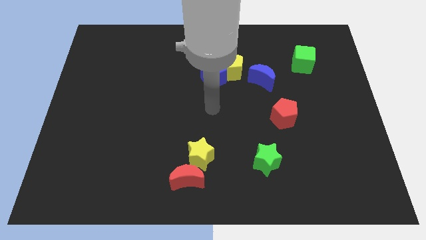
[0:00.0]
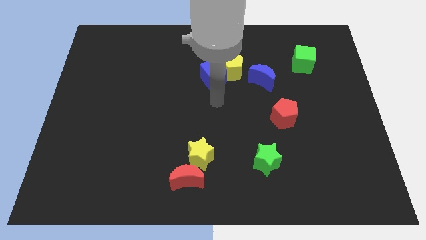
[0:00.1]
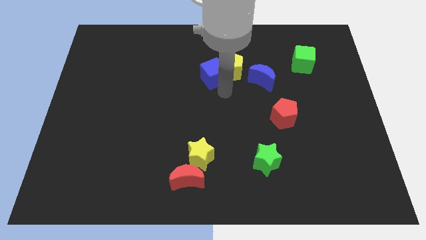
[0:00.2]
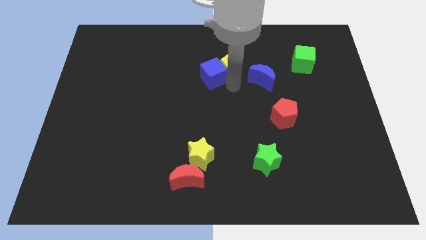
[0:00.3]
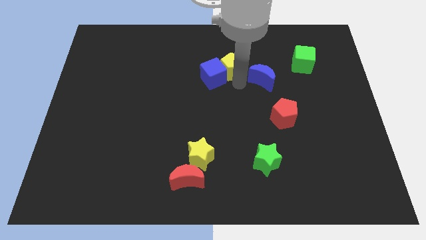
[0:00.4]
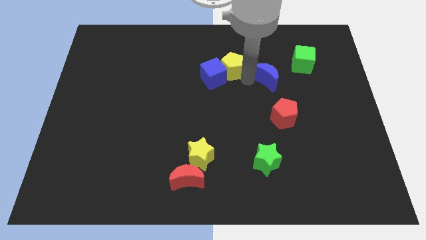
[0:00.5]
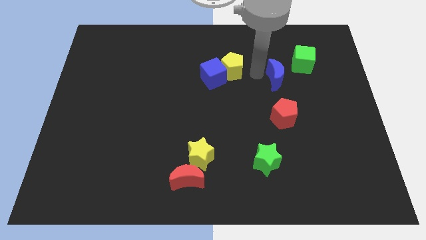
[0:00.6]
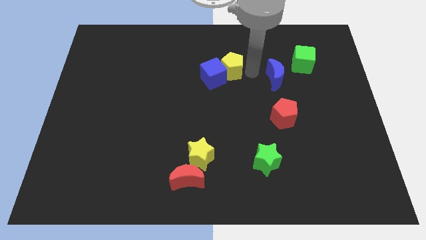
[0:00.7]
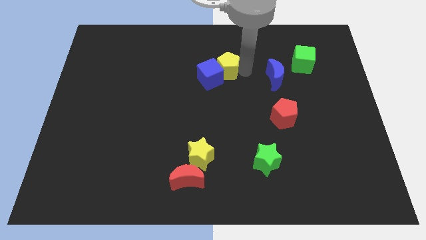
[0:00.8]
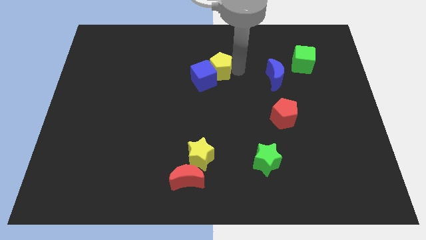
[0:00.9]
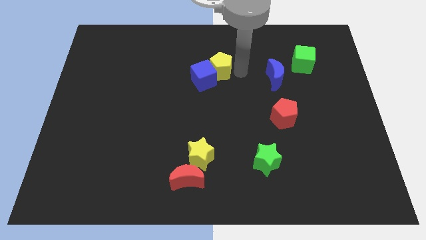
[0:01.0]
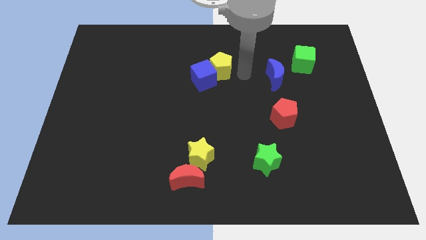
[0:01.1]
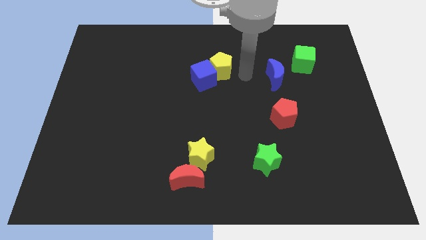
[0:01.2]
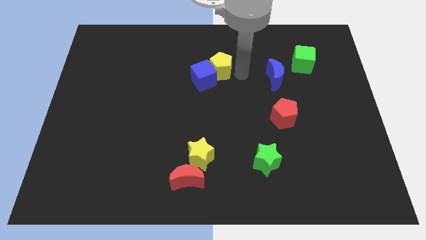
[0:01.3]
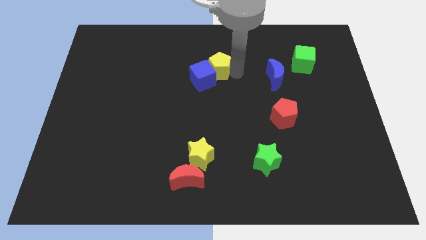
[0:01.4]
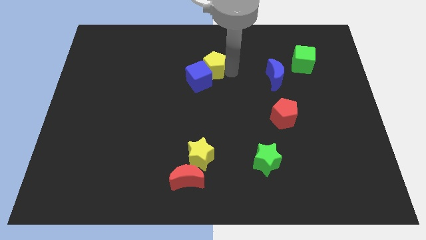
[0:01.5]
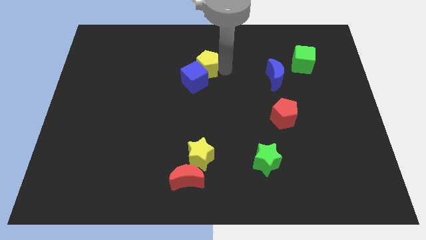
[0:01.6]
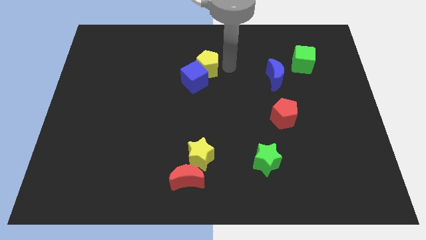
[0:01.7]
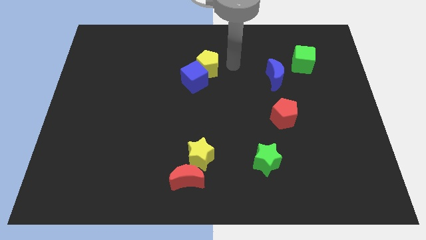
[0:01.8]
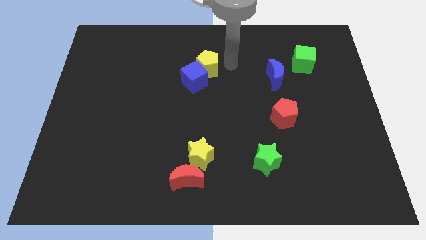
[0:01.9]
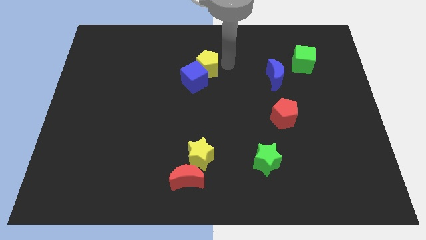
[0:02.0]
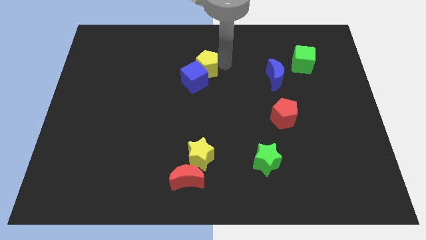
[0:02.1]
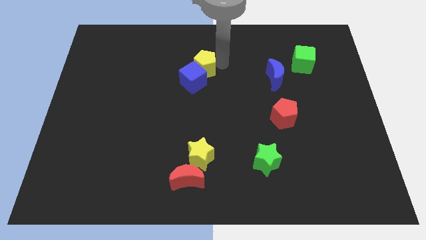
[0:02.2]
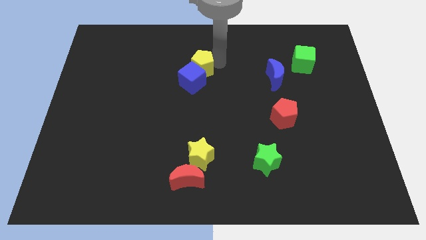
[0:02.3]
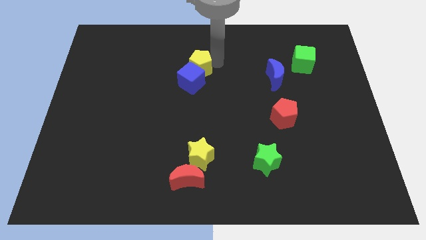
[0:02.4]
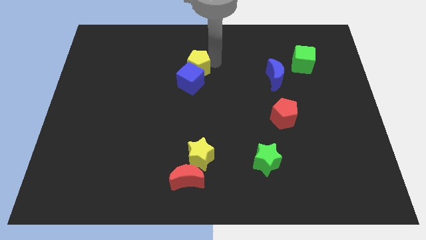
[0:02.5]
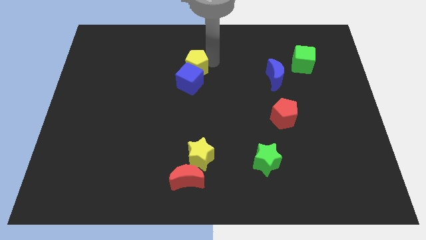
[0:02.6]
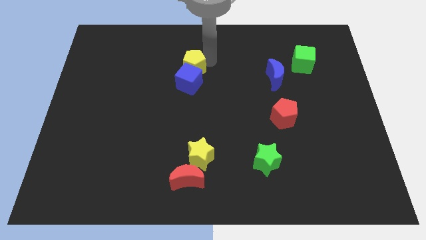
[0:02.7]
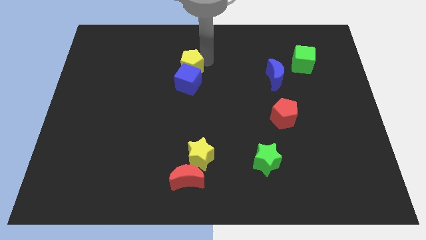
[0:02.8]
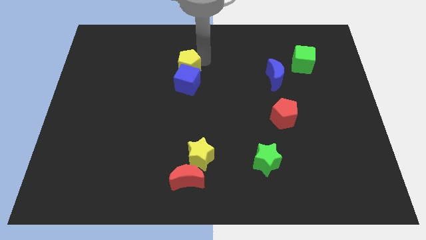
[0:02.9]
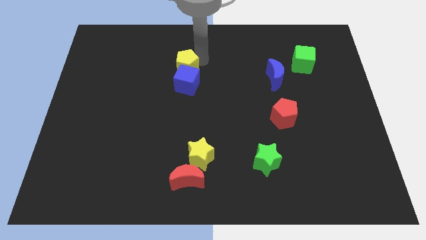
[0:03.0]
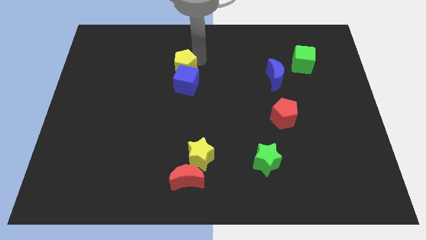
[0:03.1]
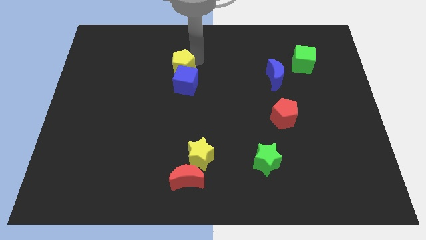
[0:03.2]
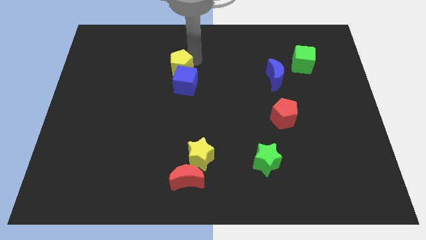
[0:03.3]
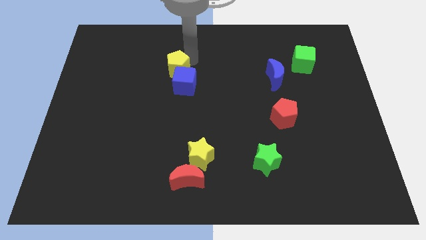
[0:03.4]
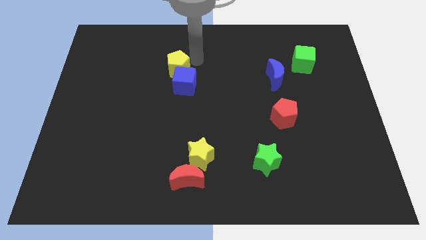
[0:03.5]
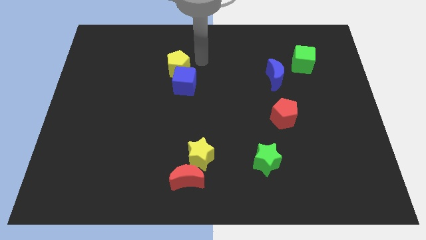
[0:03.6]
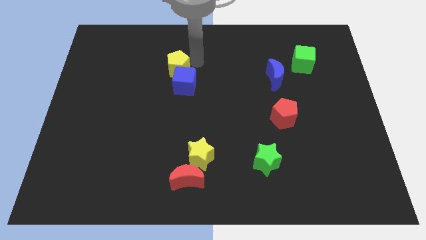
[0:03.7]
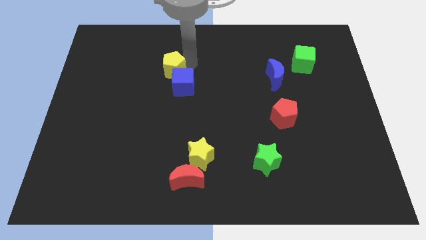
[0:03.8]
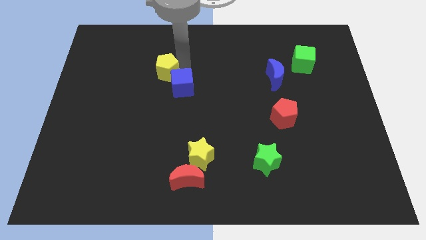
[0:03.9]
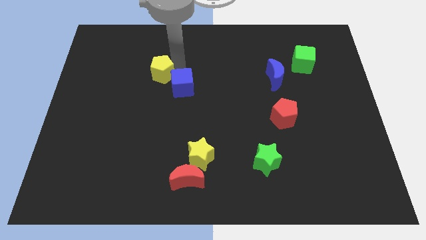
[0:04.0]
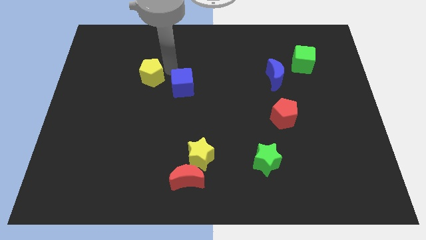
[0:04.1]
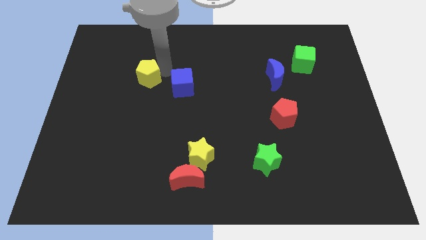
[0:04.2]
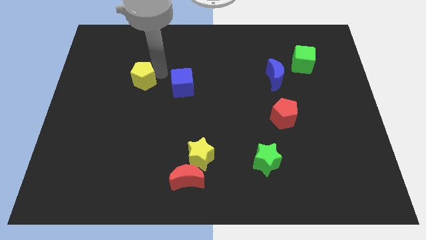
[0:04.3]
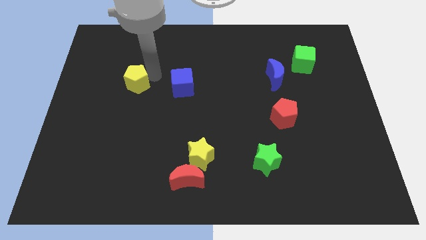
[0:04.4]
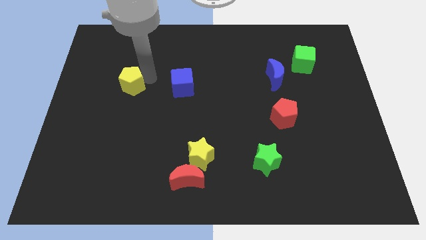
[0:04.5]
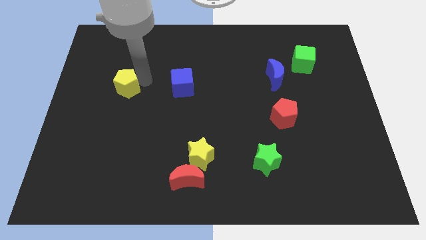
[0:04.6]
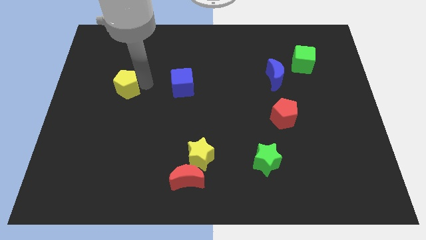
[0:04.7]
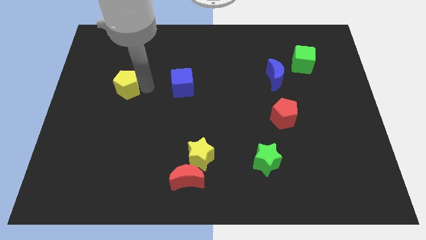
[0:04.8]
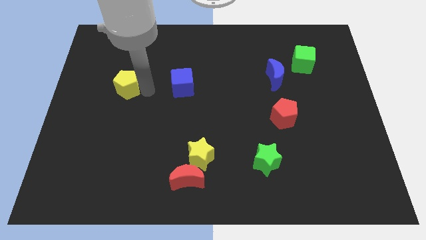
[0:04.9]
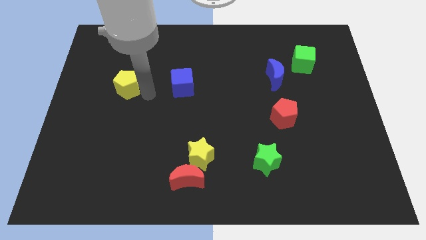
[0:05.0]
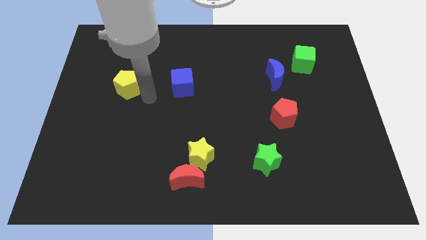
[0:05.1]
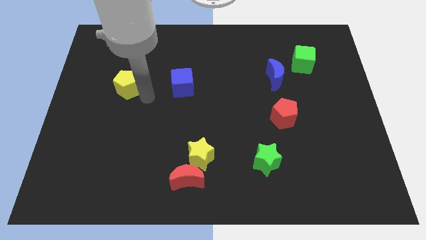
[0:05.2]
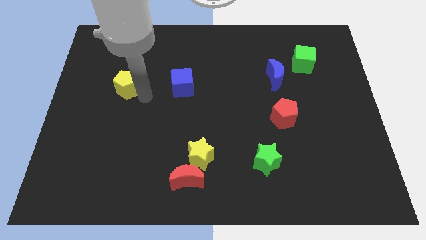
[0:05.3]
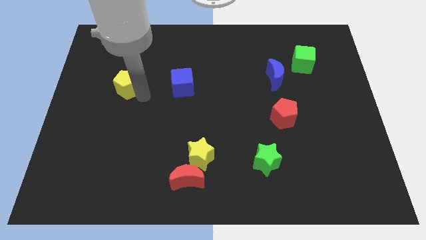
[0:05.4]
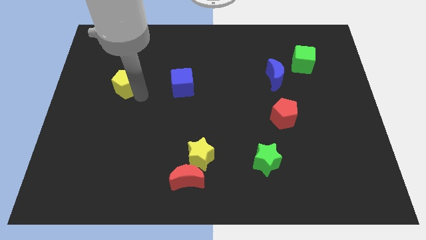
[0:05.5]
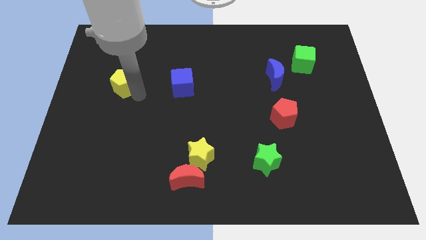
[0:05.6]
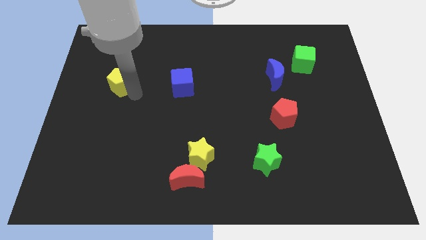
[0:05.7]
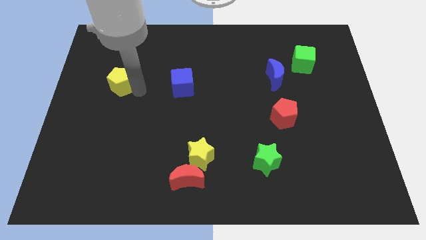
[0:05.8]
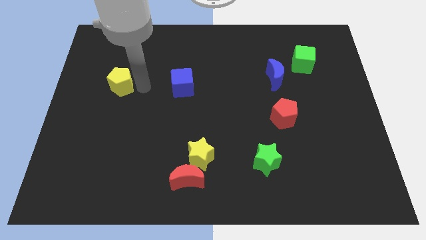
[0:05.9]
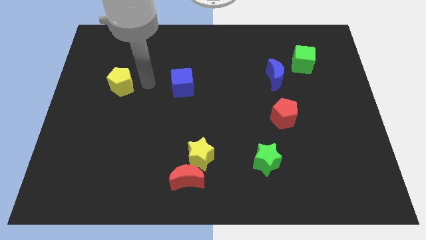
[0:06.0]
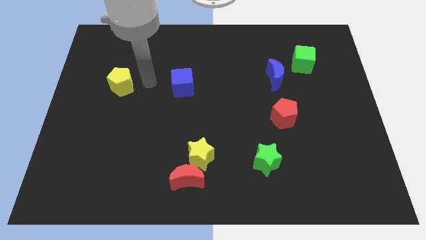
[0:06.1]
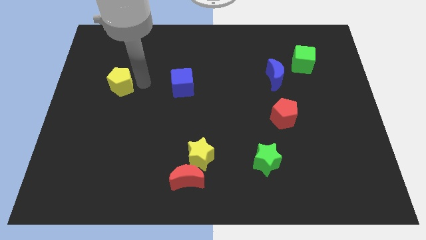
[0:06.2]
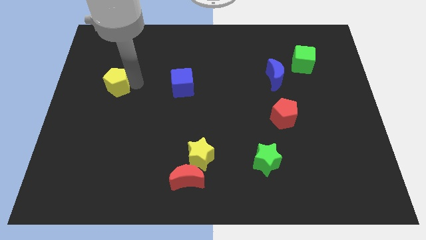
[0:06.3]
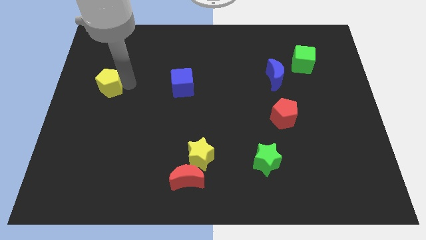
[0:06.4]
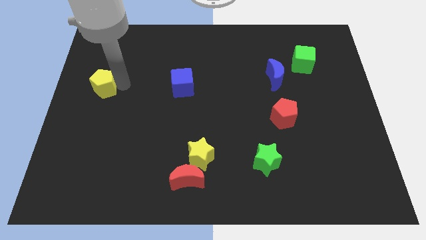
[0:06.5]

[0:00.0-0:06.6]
move the yellow pentagon to the center left
